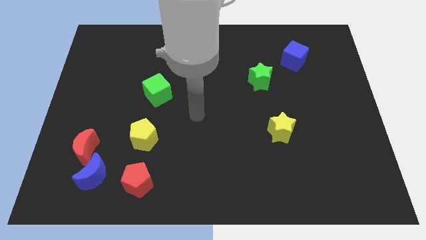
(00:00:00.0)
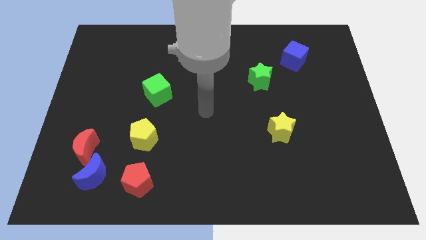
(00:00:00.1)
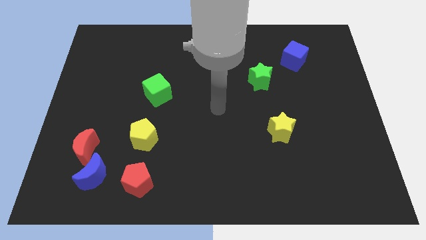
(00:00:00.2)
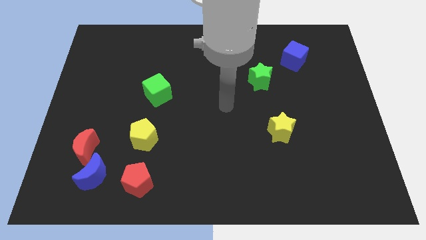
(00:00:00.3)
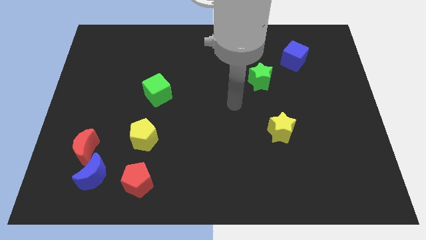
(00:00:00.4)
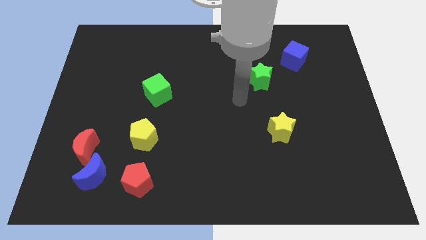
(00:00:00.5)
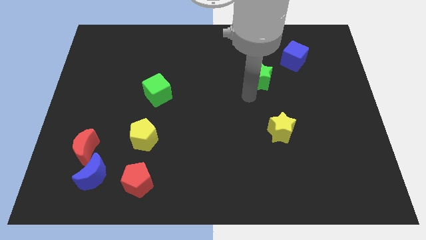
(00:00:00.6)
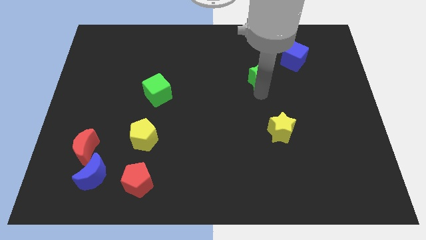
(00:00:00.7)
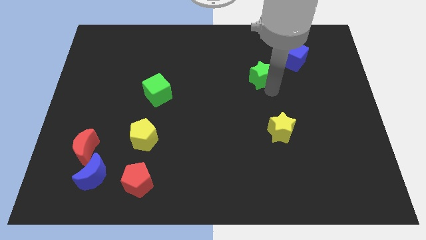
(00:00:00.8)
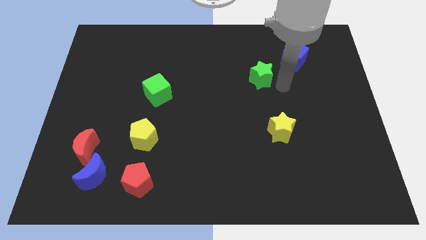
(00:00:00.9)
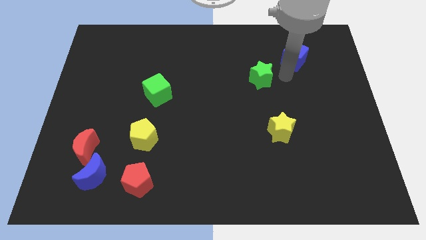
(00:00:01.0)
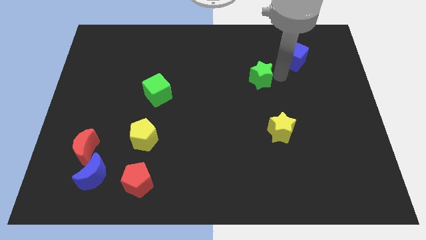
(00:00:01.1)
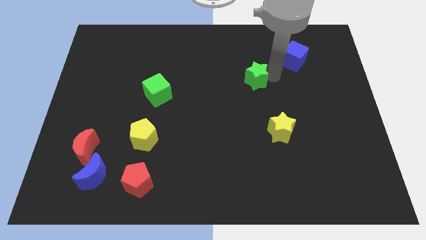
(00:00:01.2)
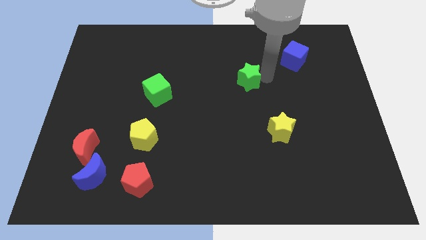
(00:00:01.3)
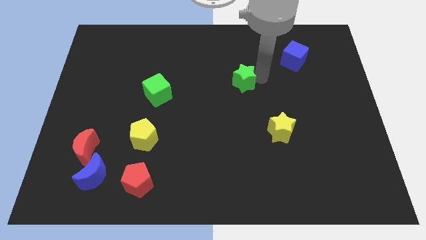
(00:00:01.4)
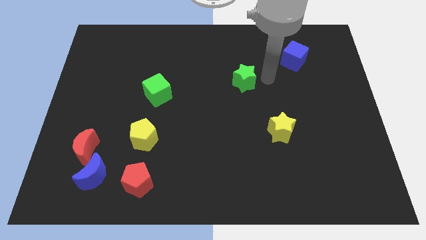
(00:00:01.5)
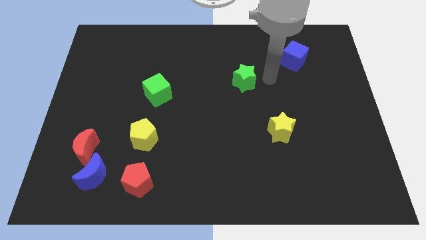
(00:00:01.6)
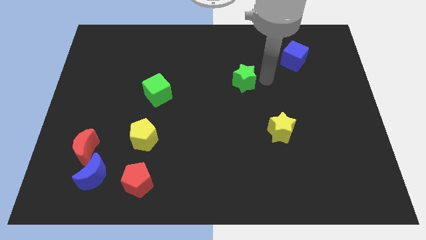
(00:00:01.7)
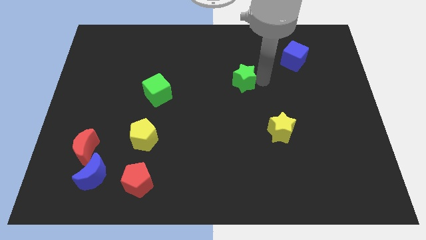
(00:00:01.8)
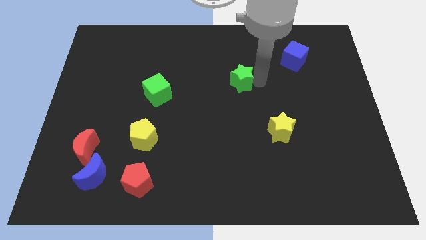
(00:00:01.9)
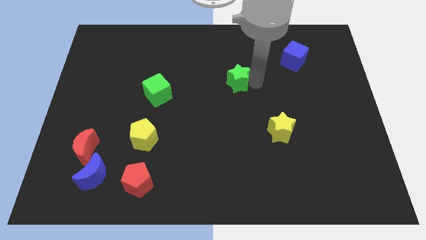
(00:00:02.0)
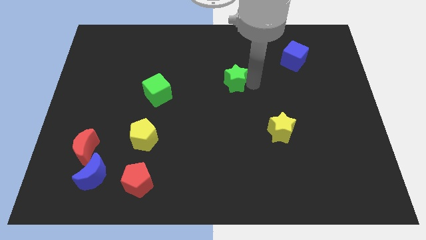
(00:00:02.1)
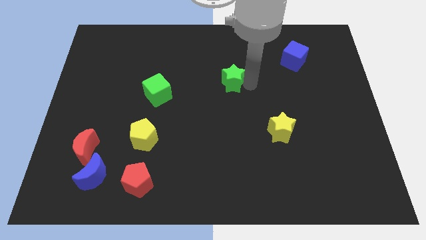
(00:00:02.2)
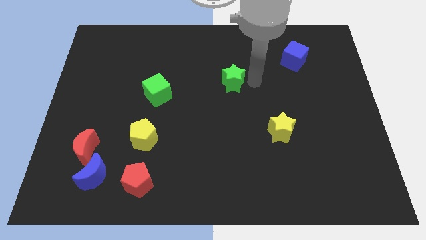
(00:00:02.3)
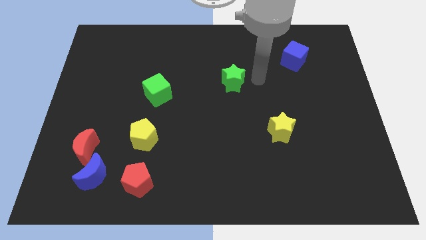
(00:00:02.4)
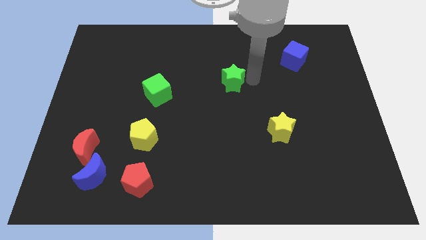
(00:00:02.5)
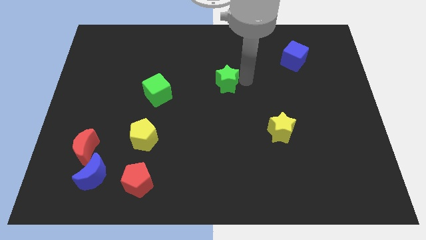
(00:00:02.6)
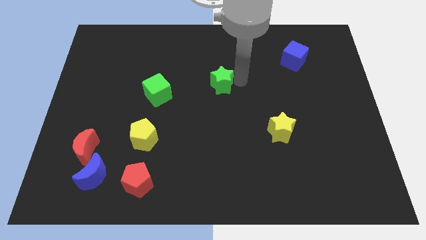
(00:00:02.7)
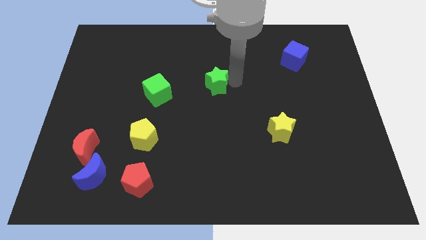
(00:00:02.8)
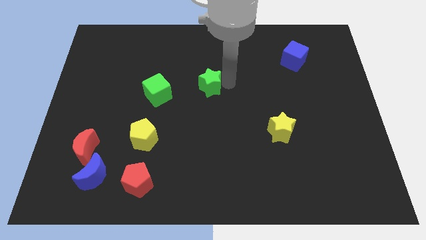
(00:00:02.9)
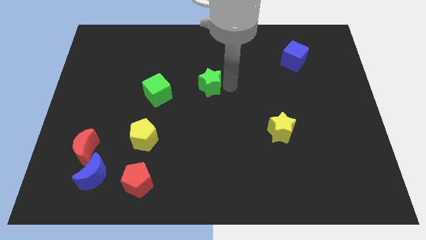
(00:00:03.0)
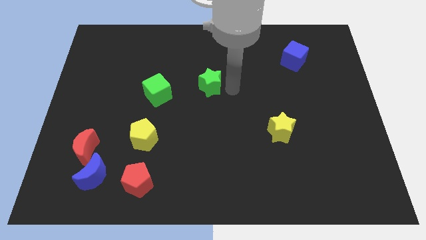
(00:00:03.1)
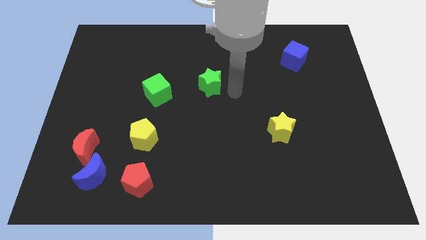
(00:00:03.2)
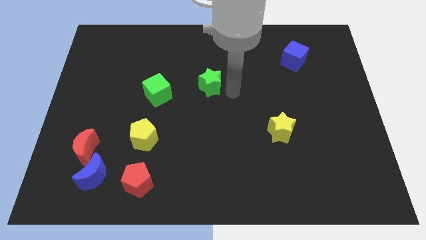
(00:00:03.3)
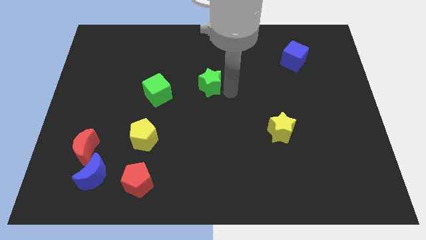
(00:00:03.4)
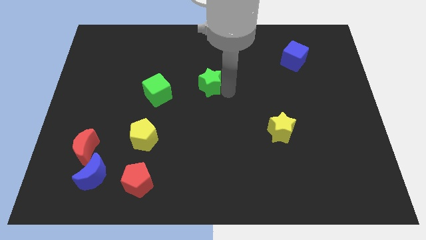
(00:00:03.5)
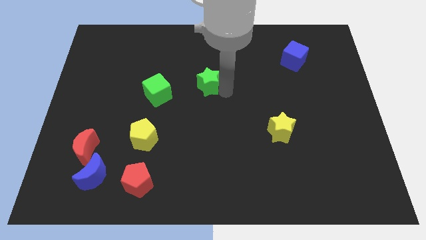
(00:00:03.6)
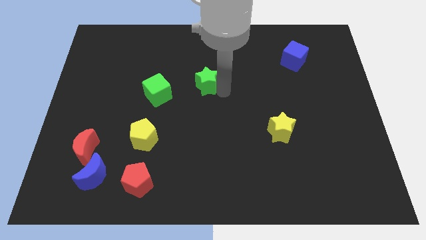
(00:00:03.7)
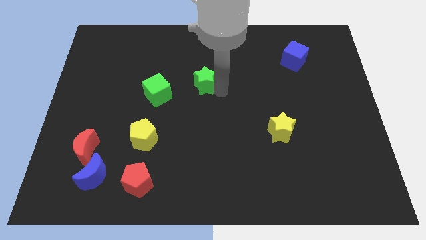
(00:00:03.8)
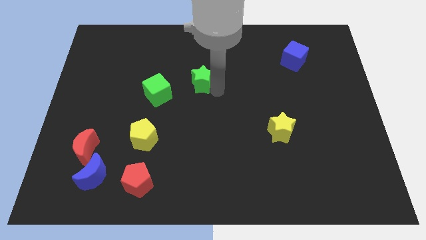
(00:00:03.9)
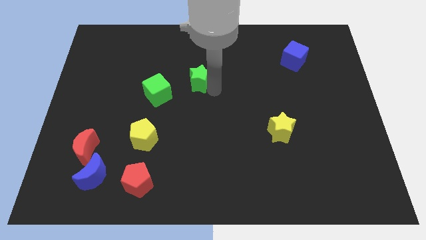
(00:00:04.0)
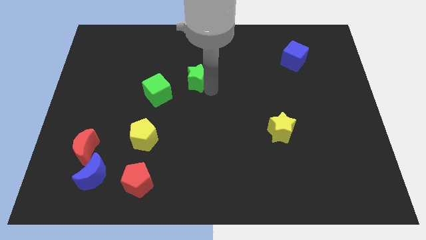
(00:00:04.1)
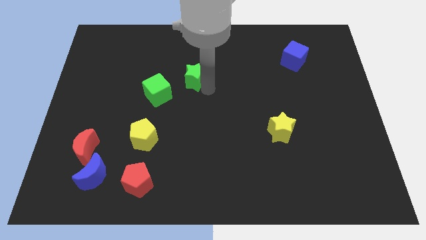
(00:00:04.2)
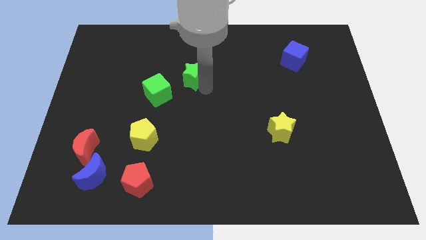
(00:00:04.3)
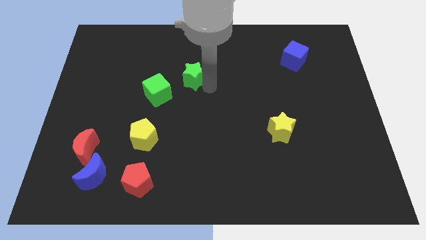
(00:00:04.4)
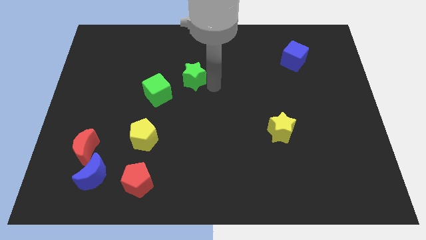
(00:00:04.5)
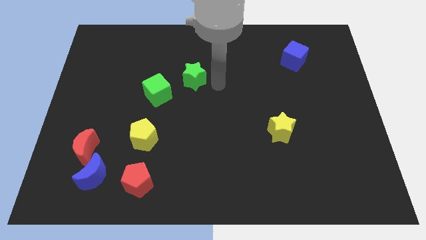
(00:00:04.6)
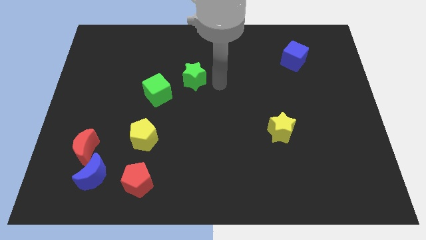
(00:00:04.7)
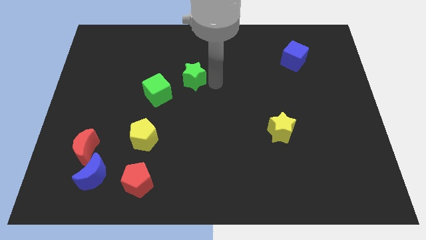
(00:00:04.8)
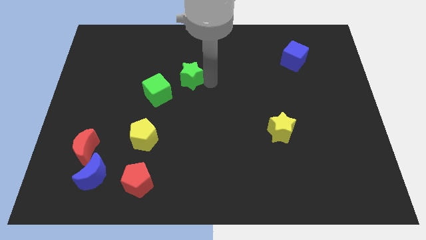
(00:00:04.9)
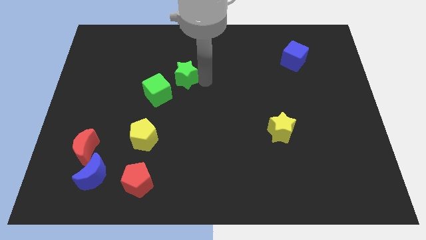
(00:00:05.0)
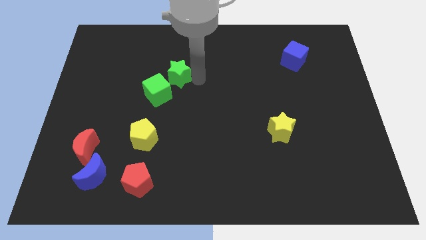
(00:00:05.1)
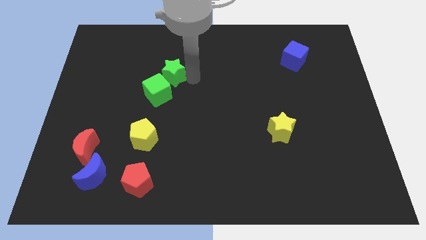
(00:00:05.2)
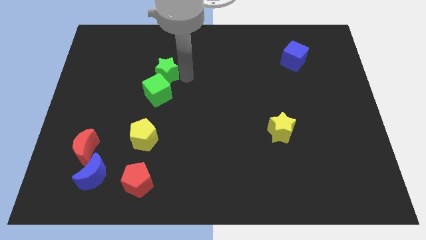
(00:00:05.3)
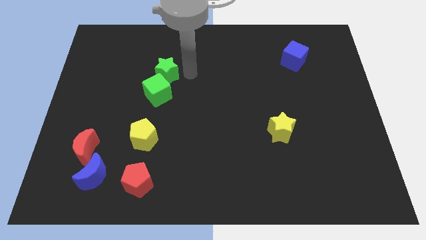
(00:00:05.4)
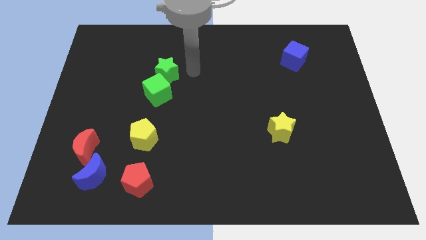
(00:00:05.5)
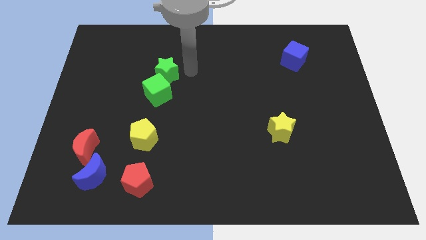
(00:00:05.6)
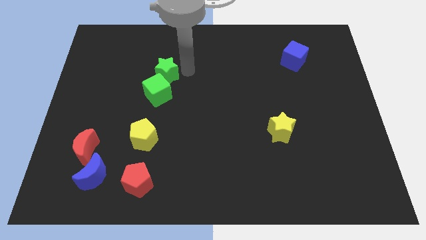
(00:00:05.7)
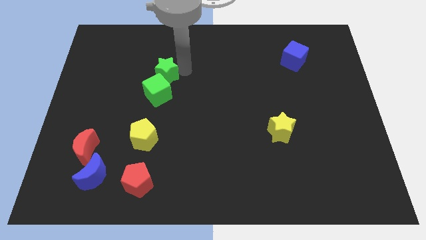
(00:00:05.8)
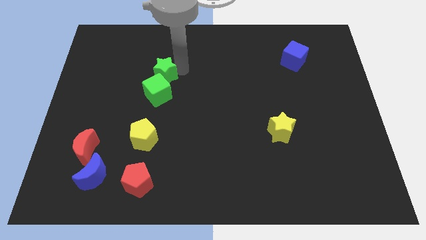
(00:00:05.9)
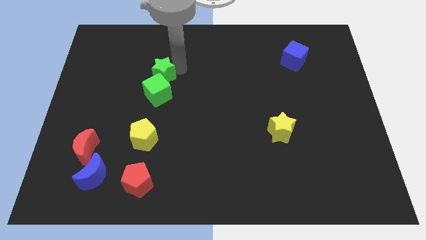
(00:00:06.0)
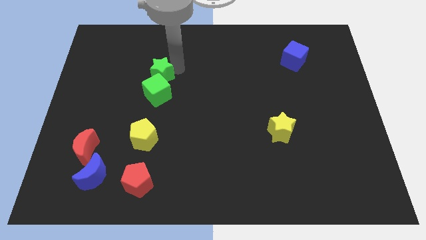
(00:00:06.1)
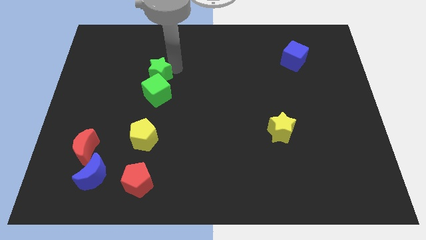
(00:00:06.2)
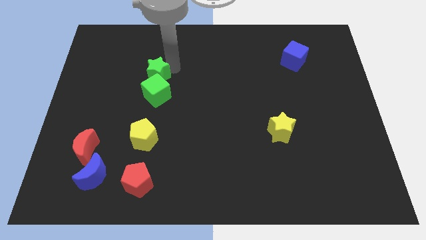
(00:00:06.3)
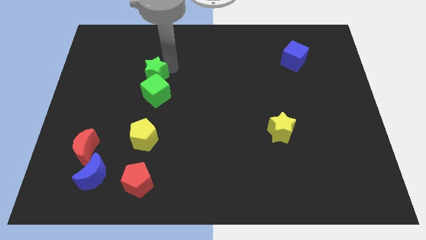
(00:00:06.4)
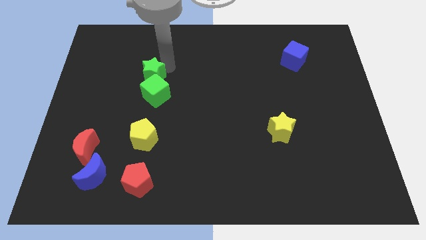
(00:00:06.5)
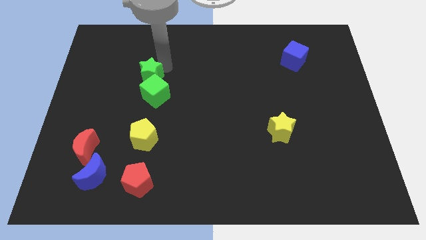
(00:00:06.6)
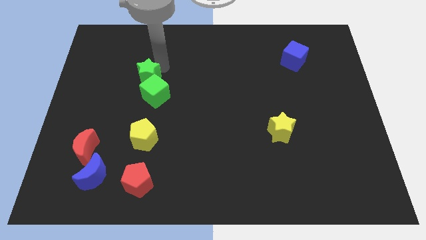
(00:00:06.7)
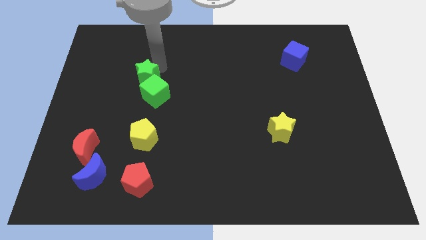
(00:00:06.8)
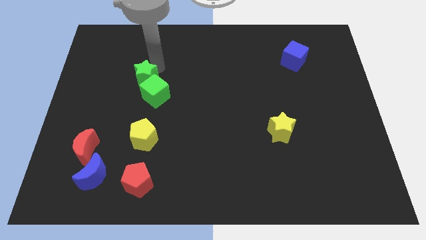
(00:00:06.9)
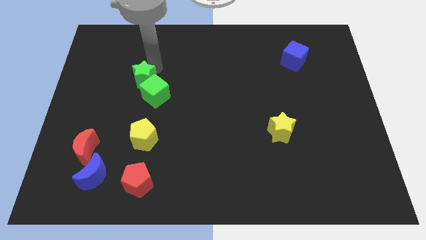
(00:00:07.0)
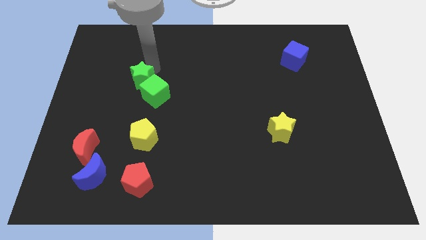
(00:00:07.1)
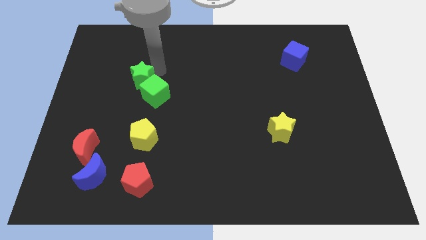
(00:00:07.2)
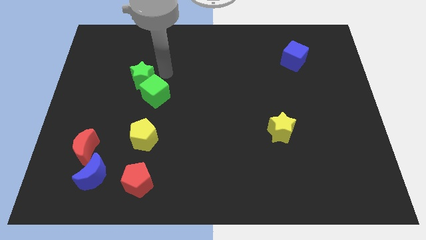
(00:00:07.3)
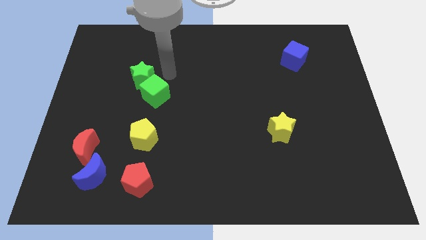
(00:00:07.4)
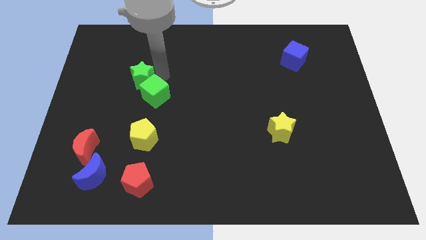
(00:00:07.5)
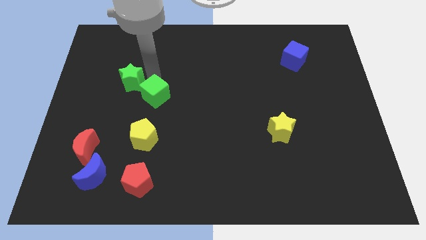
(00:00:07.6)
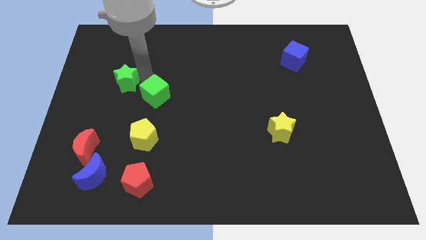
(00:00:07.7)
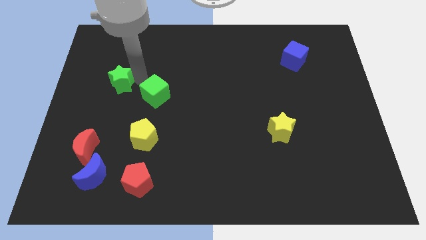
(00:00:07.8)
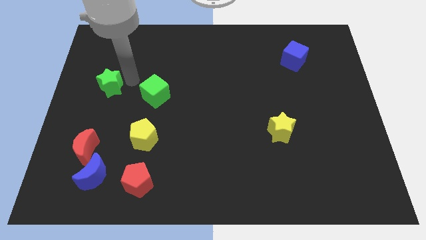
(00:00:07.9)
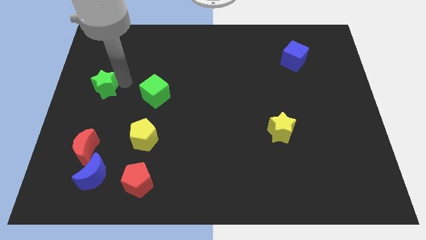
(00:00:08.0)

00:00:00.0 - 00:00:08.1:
slide the green star to the left side
